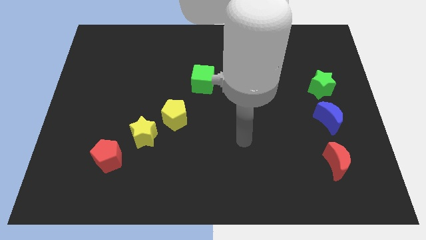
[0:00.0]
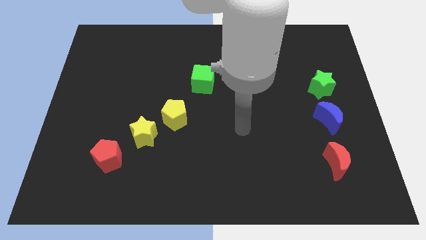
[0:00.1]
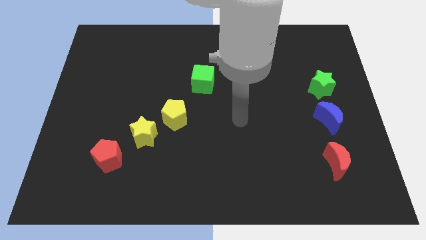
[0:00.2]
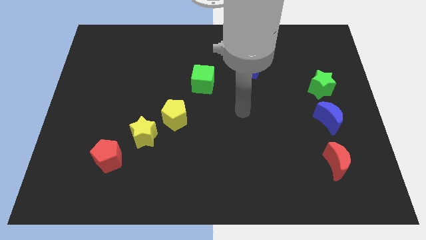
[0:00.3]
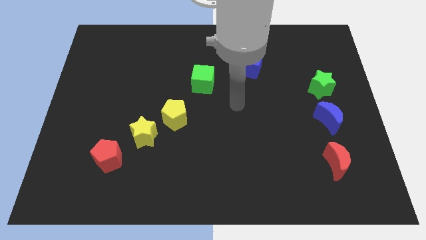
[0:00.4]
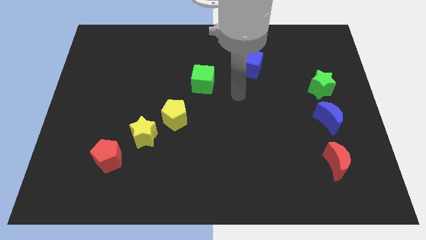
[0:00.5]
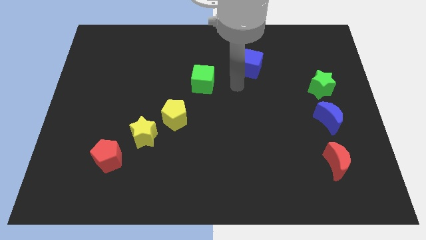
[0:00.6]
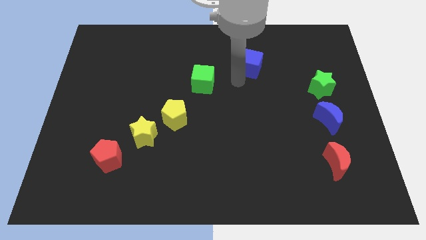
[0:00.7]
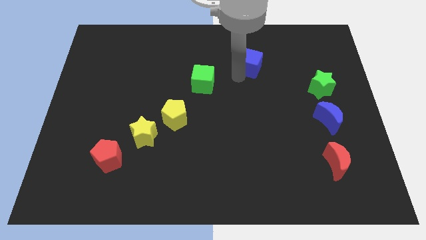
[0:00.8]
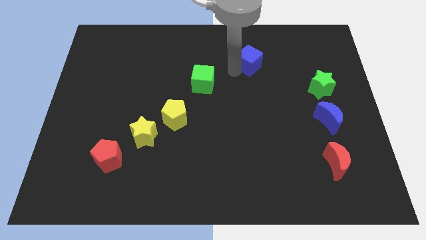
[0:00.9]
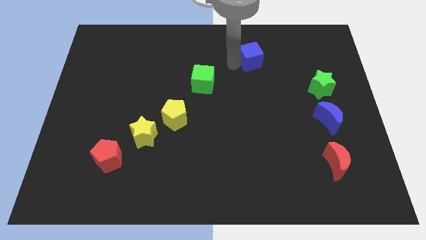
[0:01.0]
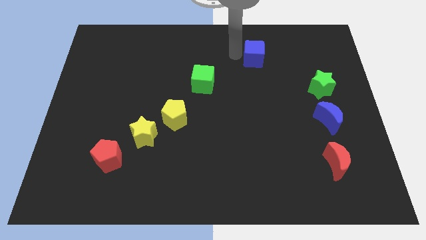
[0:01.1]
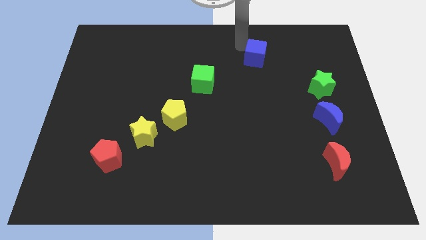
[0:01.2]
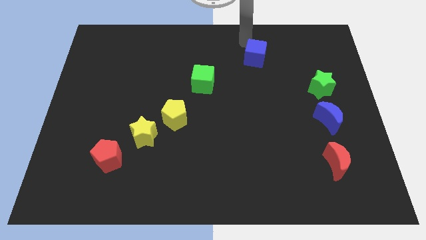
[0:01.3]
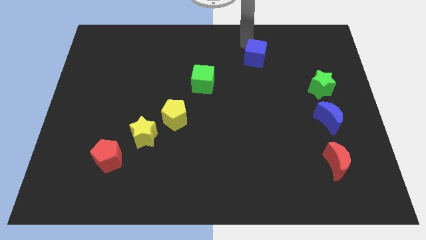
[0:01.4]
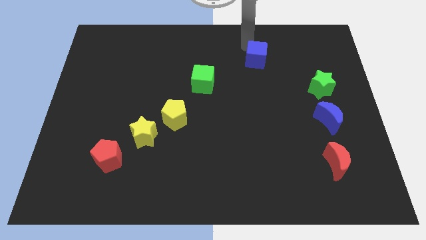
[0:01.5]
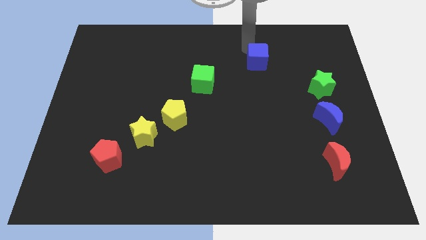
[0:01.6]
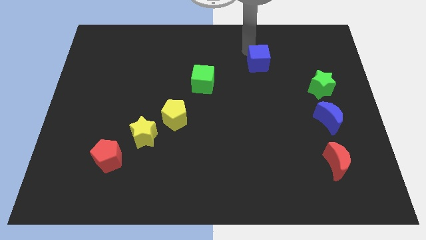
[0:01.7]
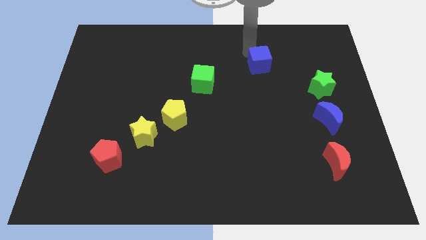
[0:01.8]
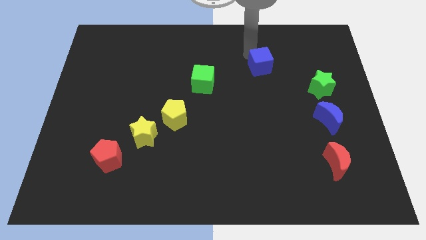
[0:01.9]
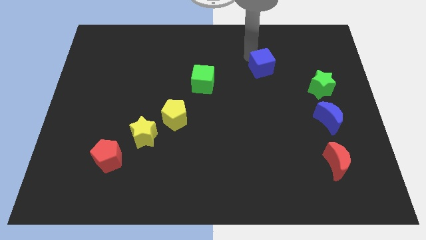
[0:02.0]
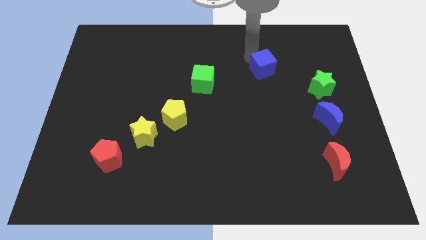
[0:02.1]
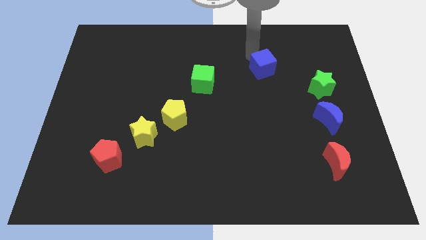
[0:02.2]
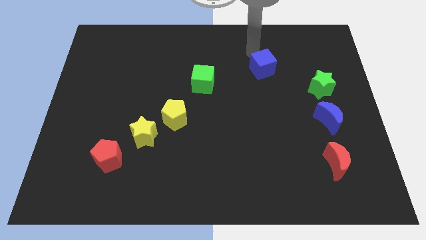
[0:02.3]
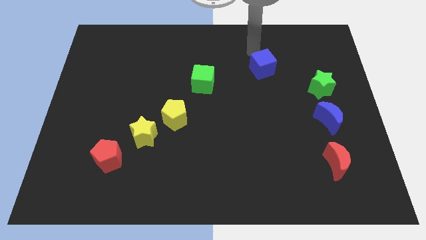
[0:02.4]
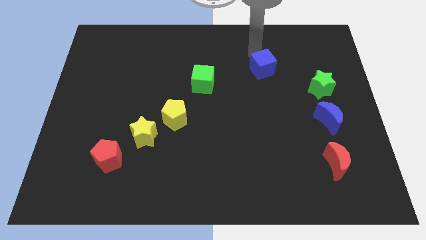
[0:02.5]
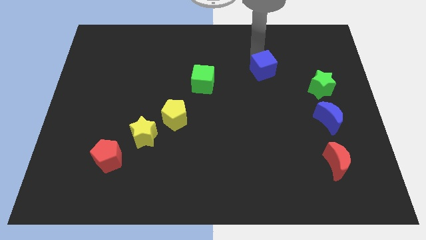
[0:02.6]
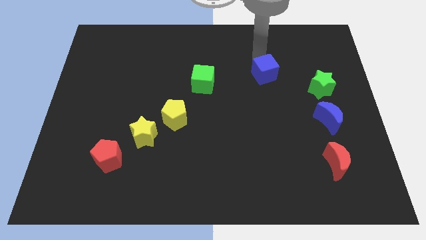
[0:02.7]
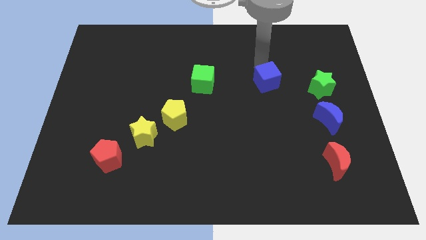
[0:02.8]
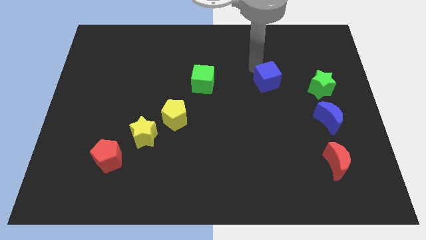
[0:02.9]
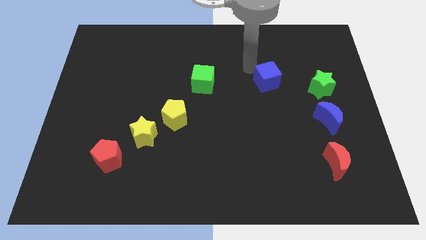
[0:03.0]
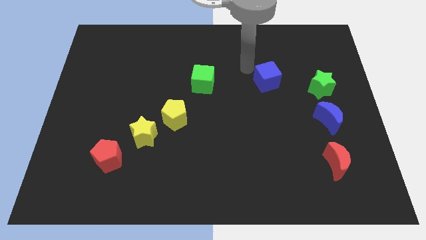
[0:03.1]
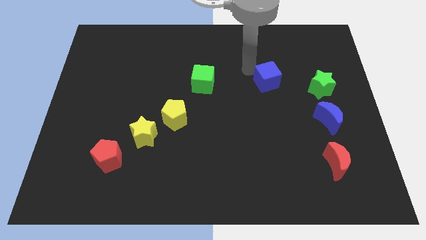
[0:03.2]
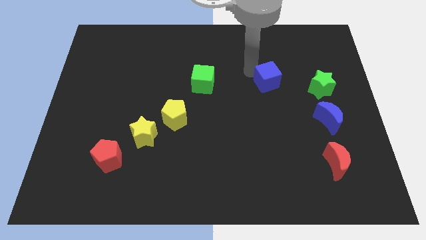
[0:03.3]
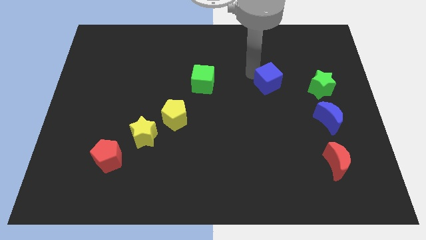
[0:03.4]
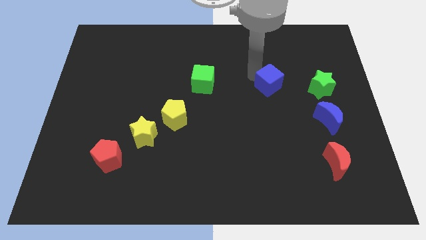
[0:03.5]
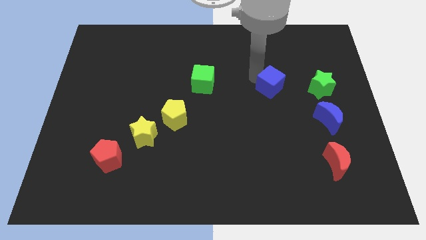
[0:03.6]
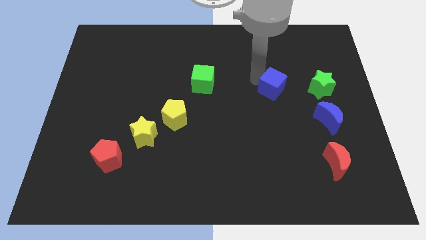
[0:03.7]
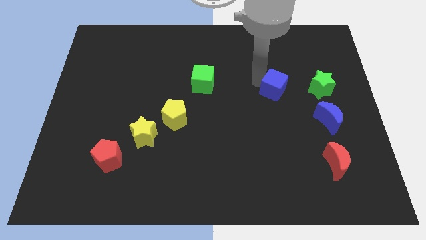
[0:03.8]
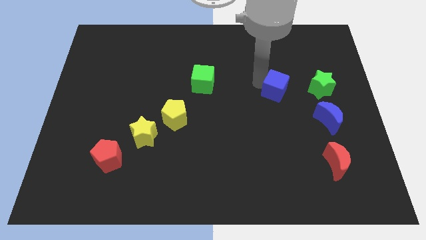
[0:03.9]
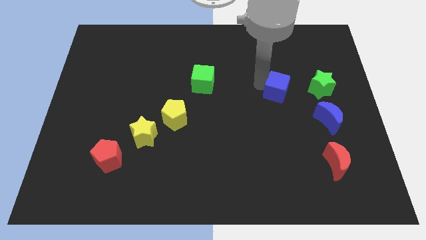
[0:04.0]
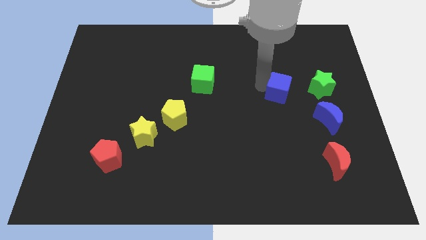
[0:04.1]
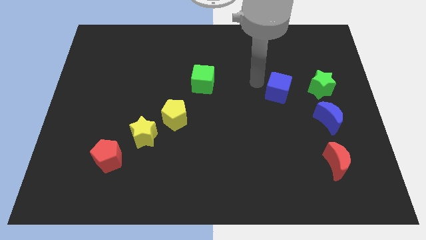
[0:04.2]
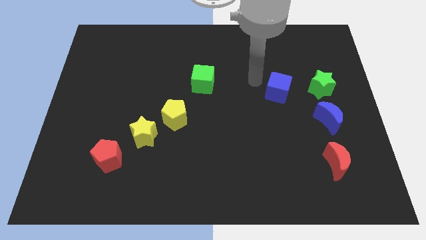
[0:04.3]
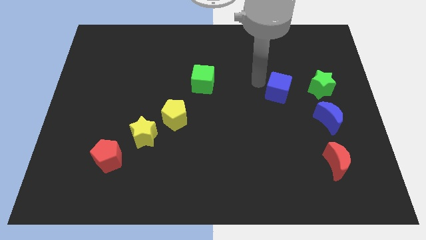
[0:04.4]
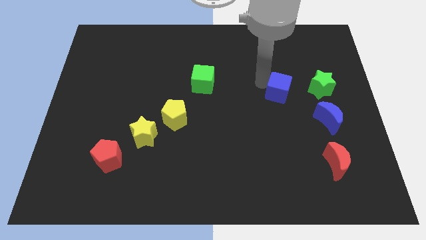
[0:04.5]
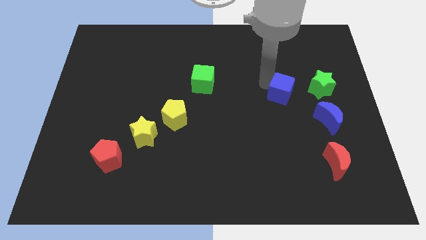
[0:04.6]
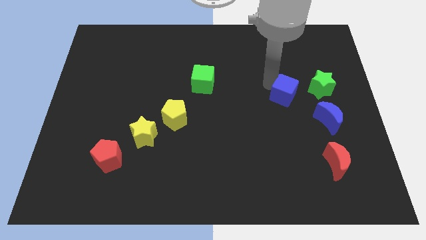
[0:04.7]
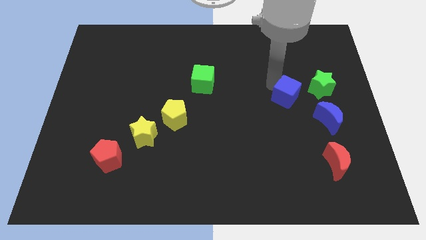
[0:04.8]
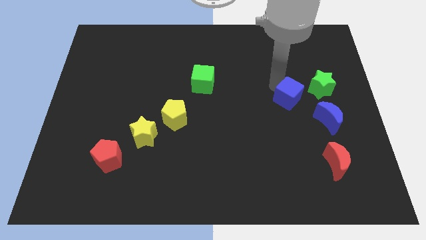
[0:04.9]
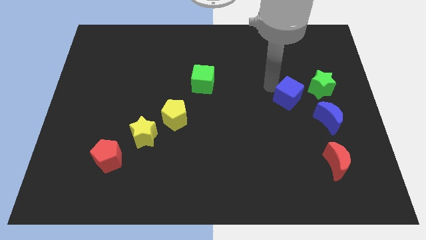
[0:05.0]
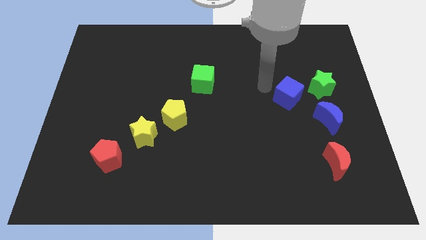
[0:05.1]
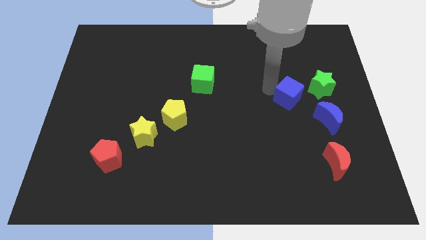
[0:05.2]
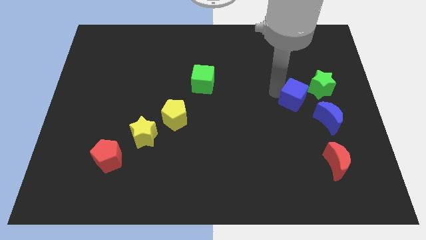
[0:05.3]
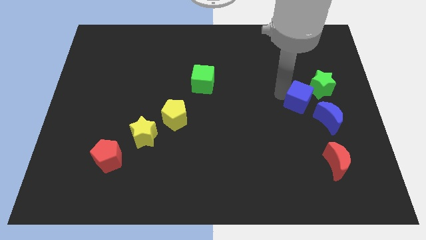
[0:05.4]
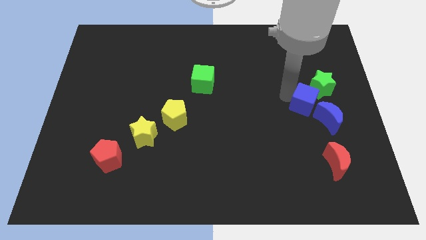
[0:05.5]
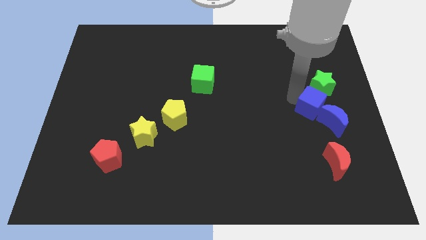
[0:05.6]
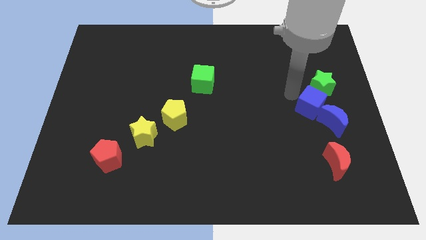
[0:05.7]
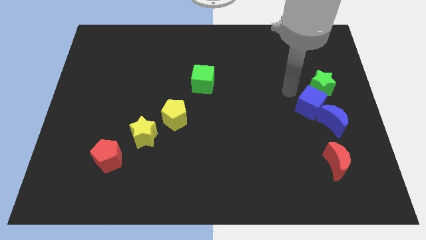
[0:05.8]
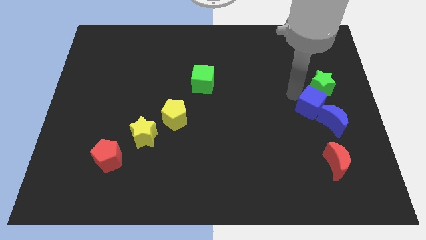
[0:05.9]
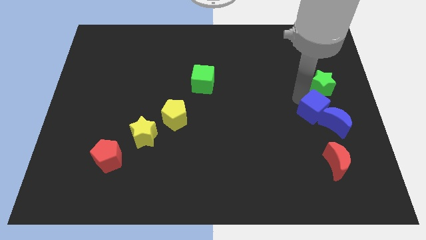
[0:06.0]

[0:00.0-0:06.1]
slide the blue cube towards the blue moon

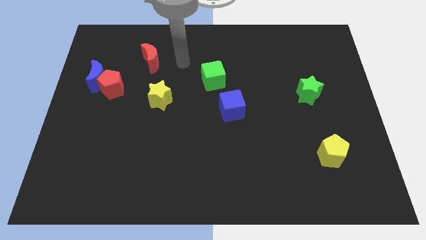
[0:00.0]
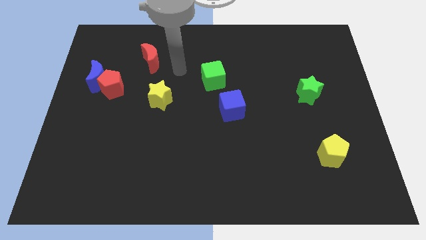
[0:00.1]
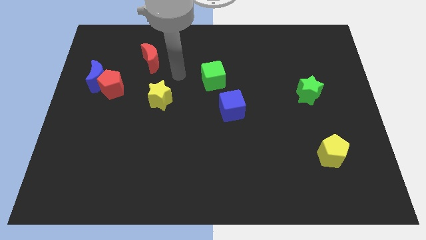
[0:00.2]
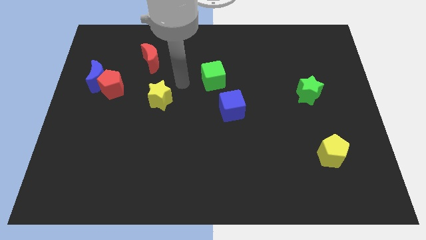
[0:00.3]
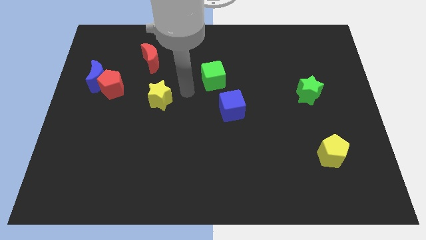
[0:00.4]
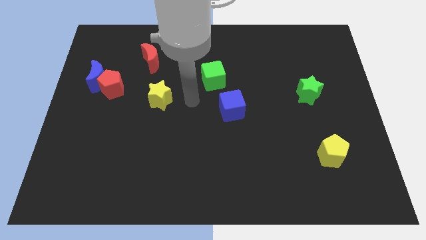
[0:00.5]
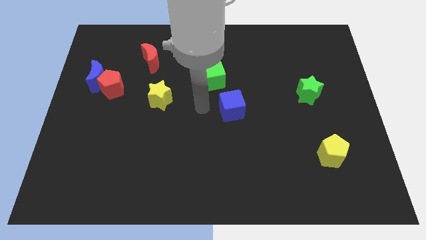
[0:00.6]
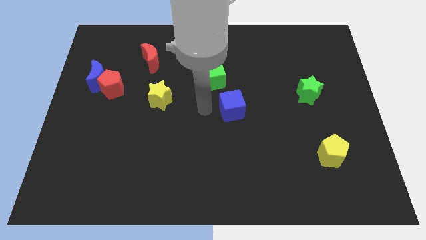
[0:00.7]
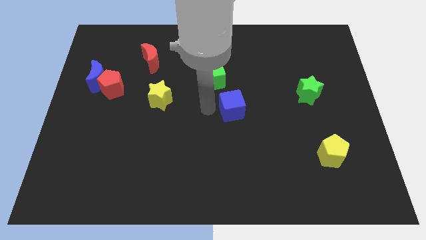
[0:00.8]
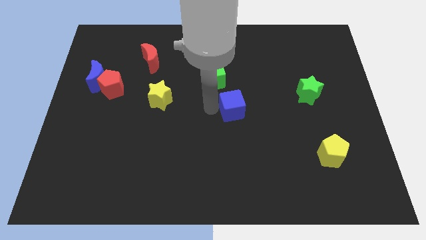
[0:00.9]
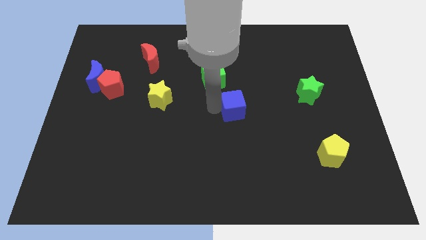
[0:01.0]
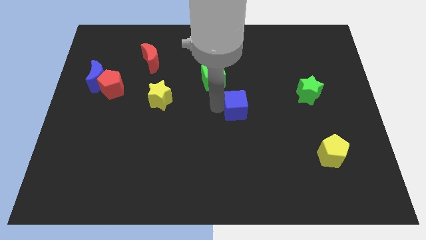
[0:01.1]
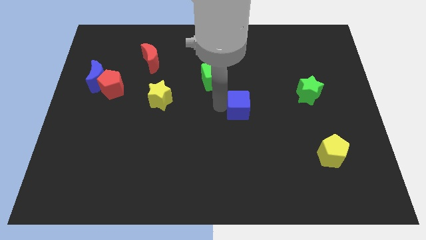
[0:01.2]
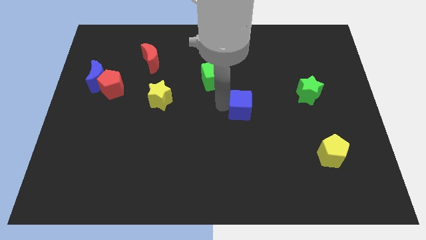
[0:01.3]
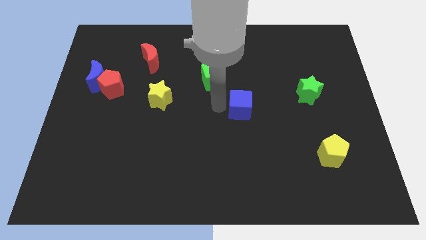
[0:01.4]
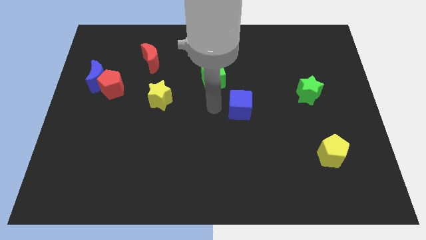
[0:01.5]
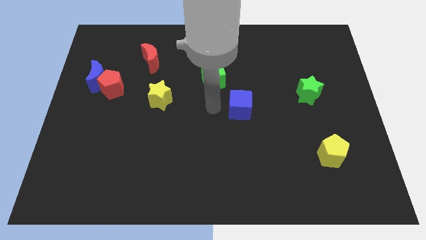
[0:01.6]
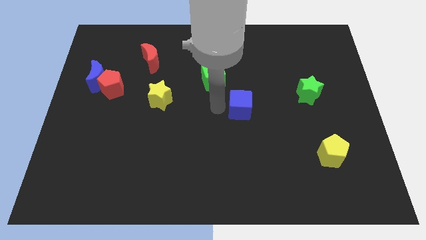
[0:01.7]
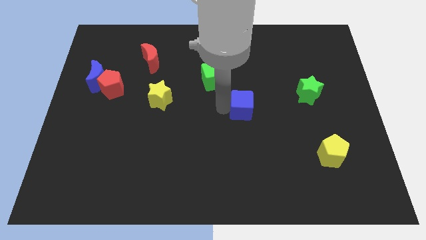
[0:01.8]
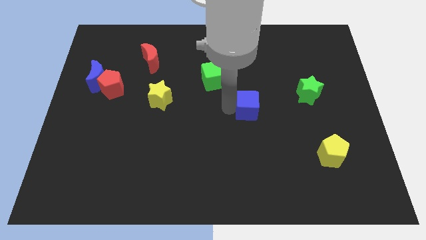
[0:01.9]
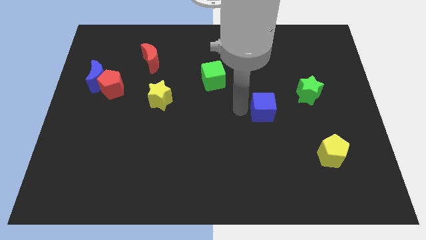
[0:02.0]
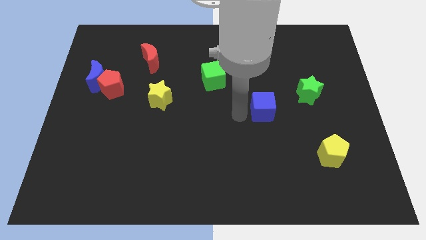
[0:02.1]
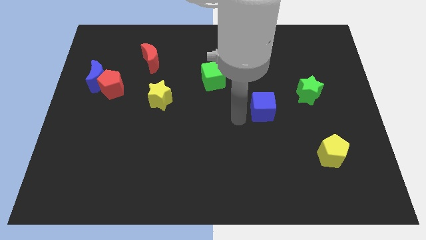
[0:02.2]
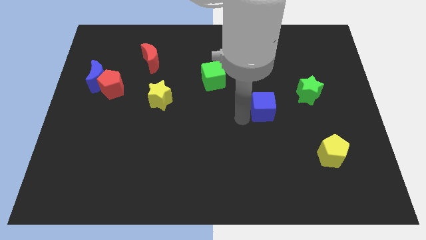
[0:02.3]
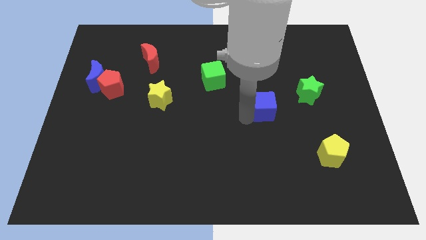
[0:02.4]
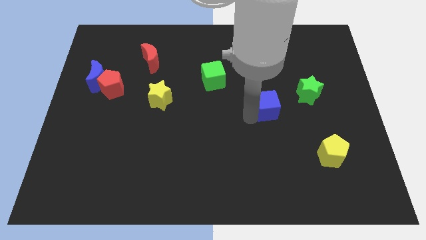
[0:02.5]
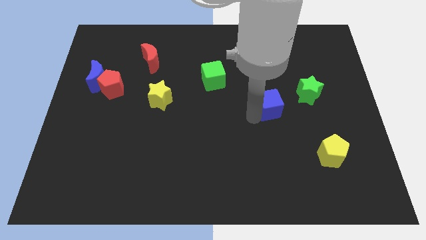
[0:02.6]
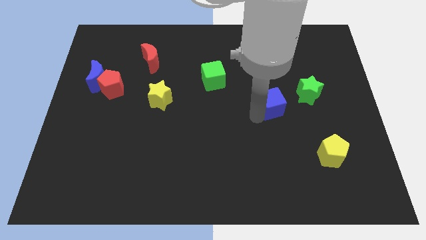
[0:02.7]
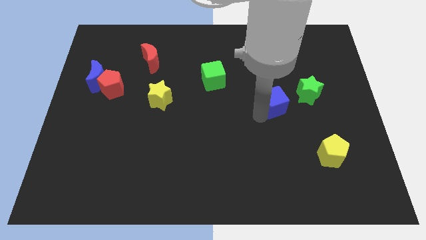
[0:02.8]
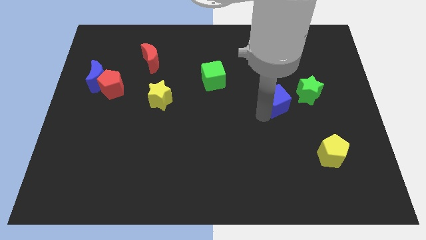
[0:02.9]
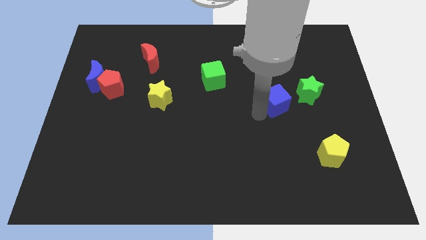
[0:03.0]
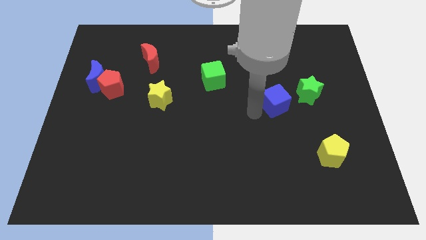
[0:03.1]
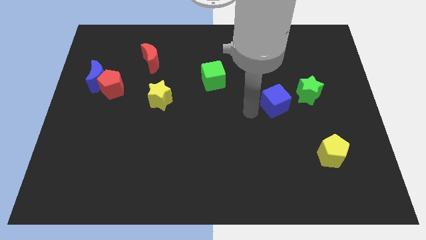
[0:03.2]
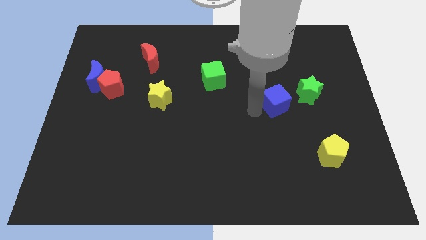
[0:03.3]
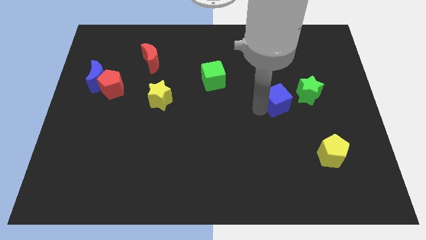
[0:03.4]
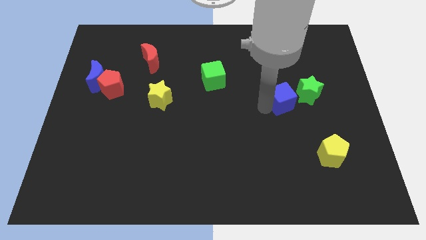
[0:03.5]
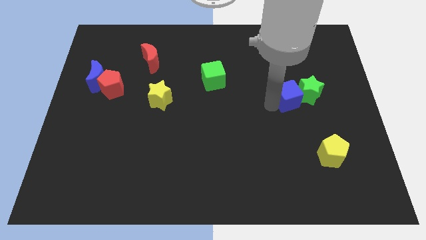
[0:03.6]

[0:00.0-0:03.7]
move the blue cube next to the green star
